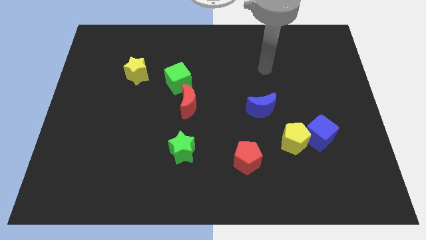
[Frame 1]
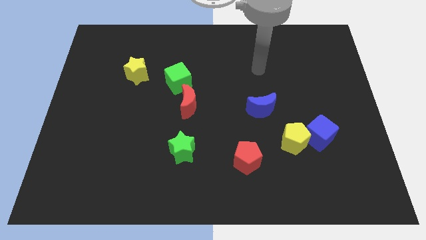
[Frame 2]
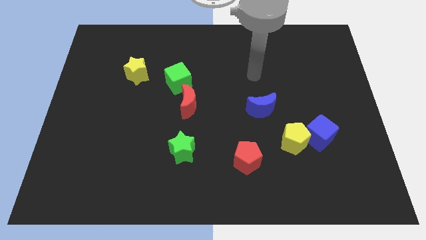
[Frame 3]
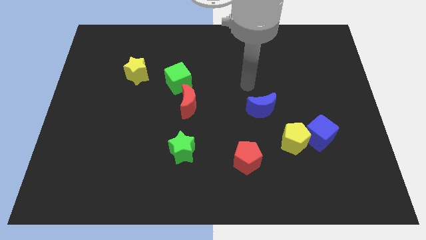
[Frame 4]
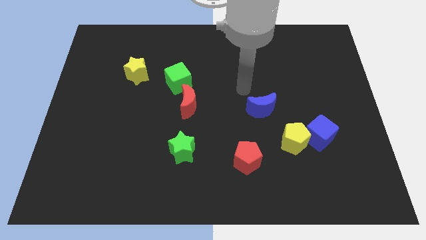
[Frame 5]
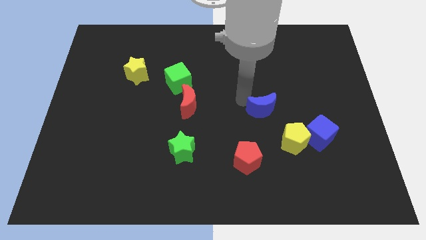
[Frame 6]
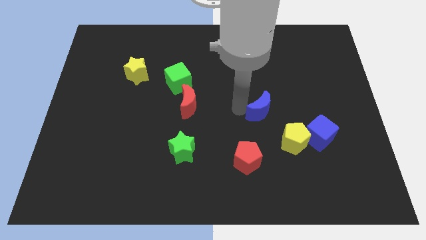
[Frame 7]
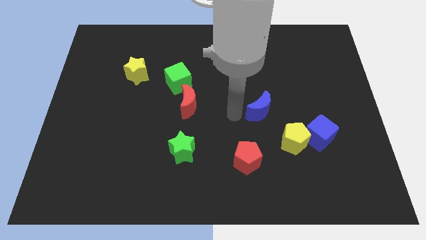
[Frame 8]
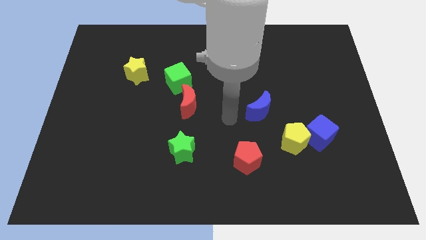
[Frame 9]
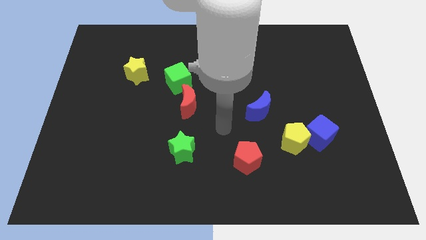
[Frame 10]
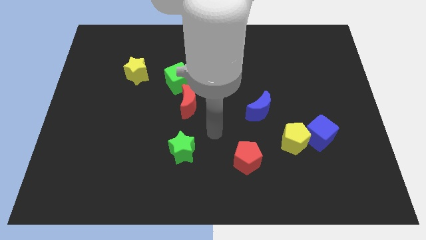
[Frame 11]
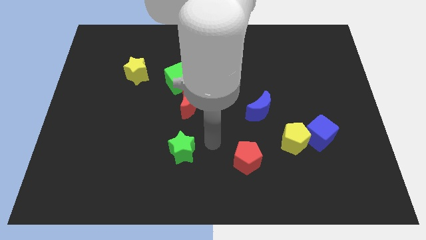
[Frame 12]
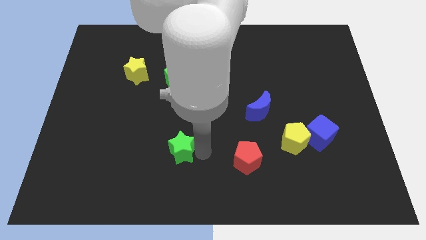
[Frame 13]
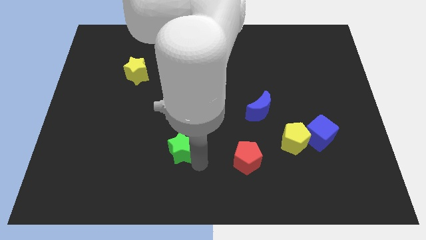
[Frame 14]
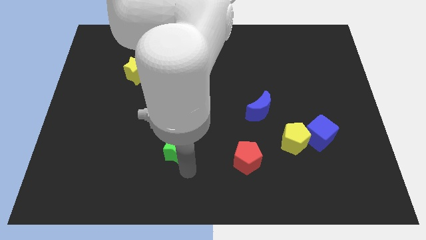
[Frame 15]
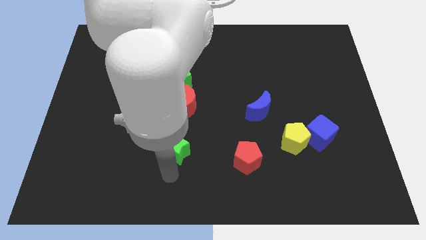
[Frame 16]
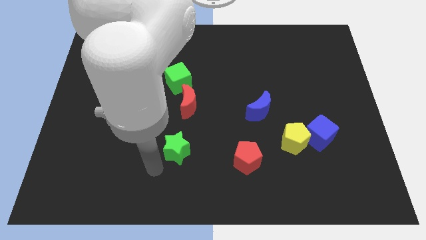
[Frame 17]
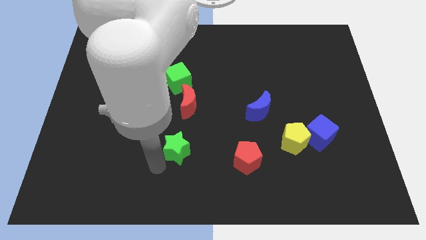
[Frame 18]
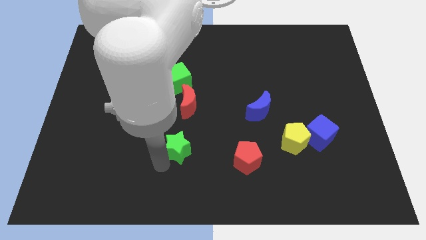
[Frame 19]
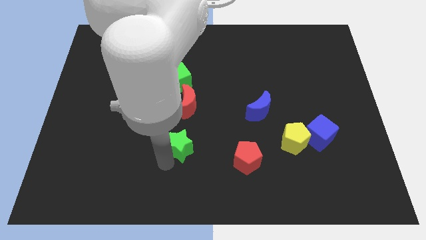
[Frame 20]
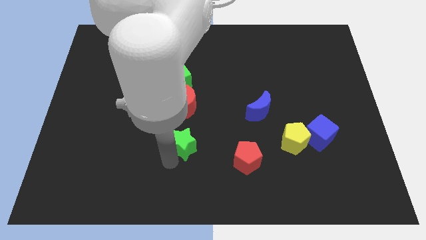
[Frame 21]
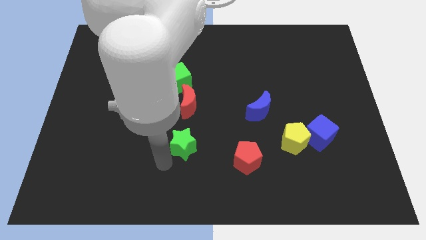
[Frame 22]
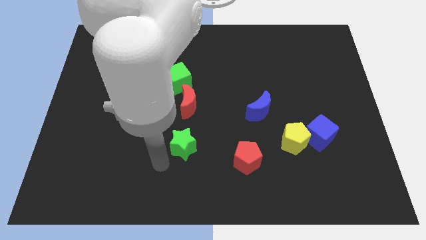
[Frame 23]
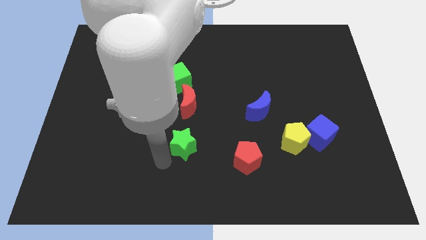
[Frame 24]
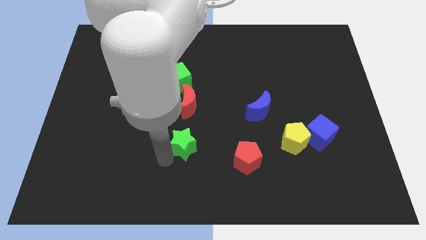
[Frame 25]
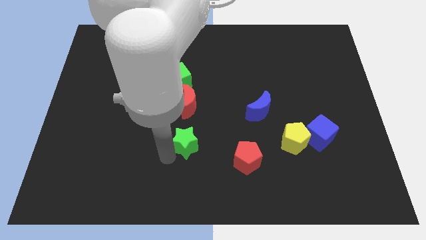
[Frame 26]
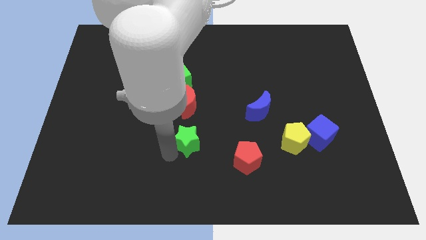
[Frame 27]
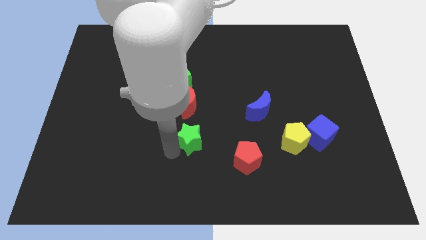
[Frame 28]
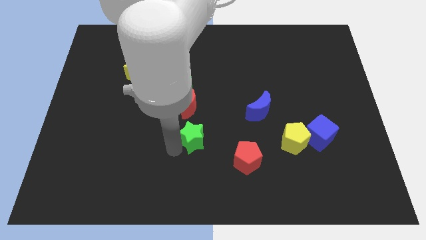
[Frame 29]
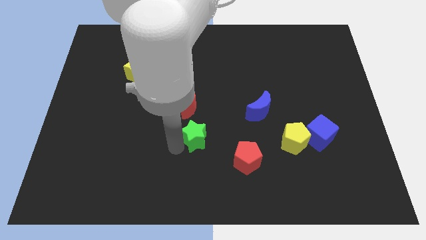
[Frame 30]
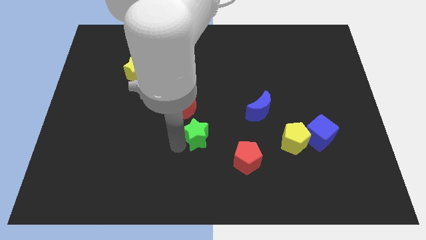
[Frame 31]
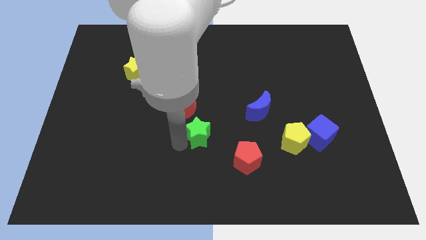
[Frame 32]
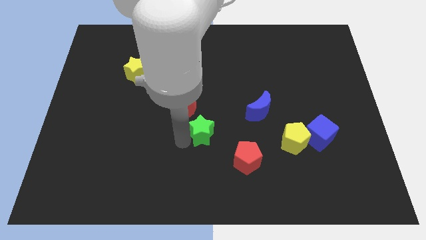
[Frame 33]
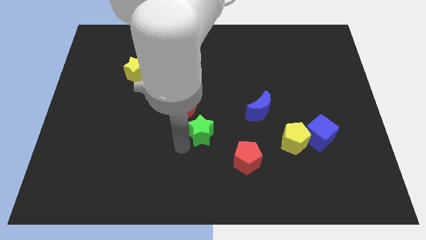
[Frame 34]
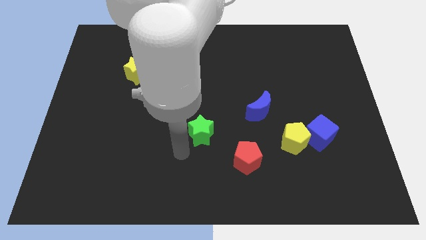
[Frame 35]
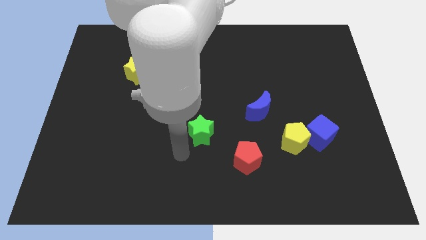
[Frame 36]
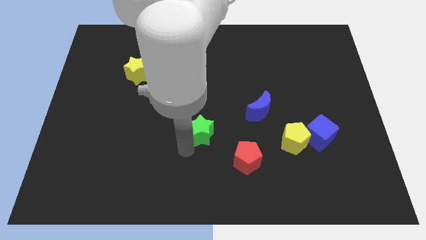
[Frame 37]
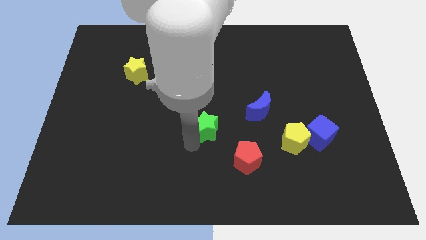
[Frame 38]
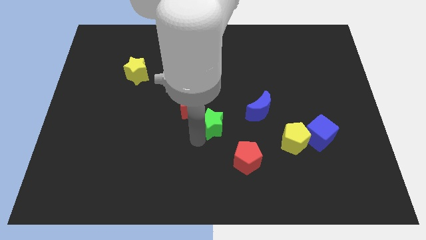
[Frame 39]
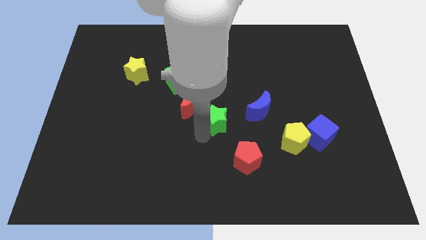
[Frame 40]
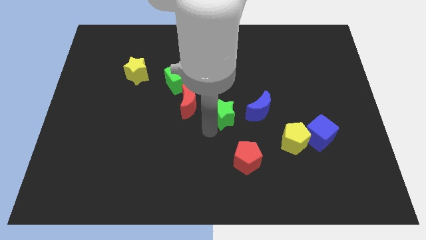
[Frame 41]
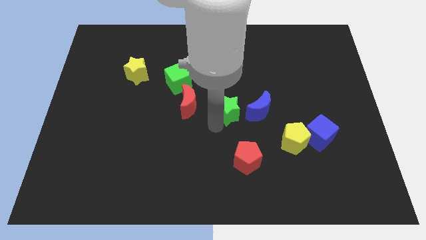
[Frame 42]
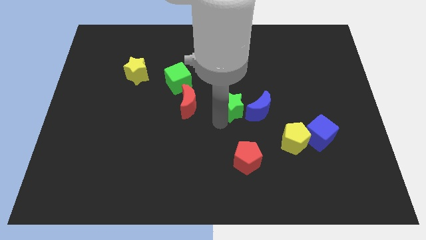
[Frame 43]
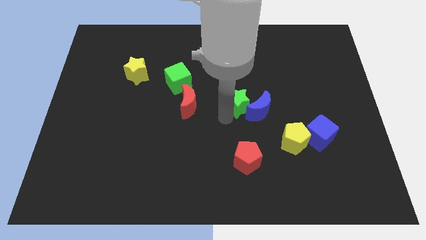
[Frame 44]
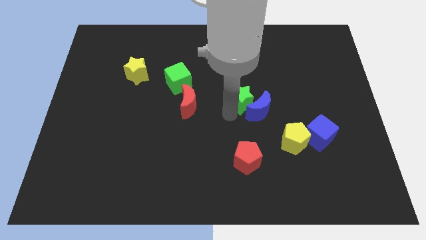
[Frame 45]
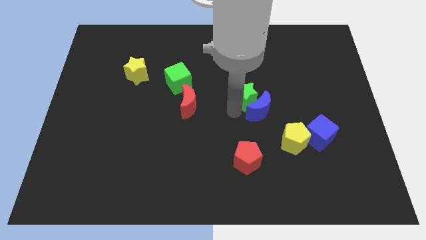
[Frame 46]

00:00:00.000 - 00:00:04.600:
push the green star upwards and then right

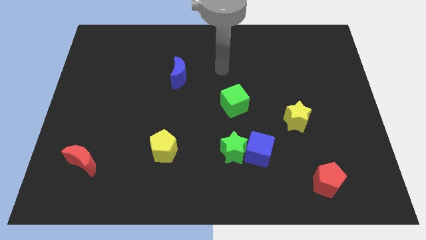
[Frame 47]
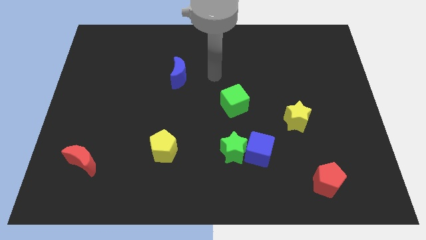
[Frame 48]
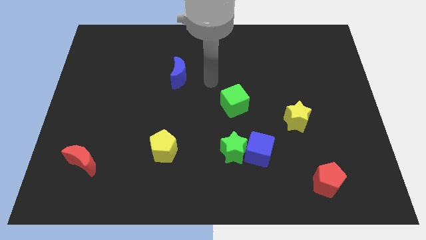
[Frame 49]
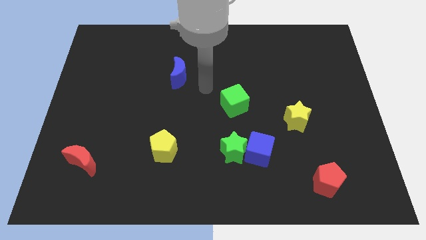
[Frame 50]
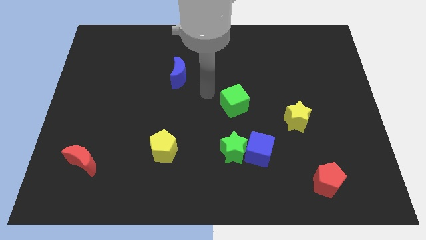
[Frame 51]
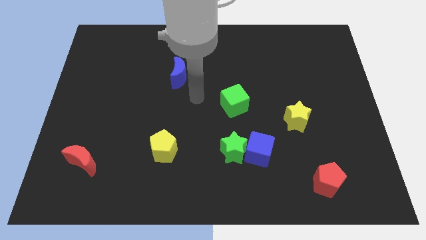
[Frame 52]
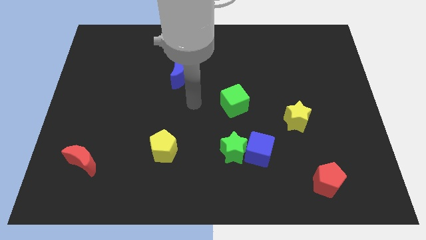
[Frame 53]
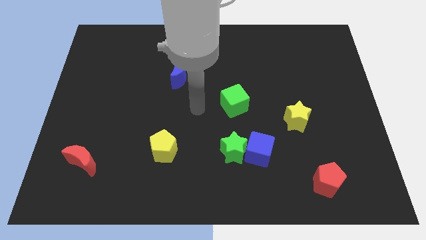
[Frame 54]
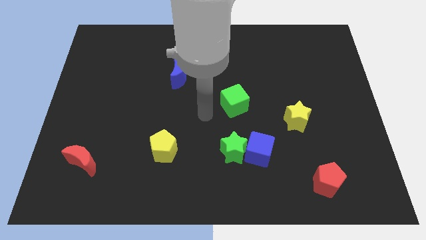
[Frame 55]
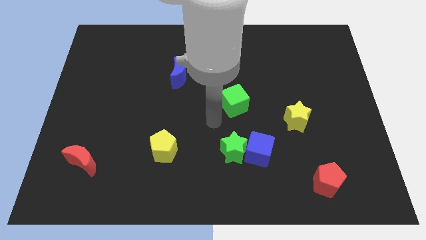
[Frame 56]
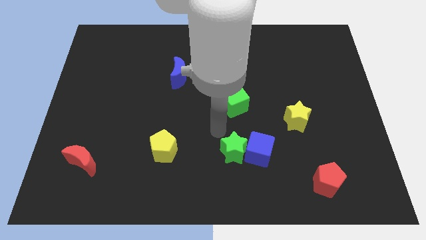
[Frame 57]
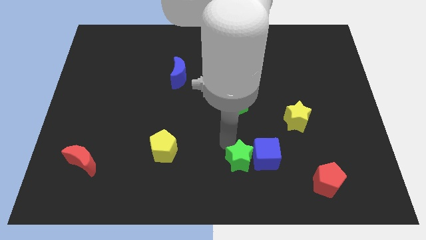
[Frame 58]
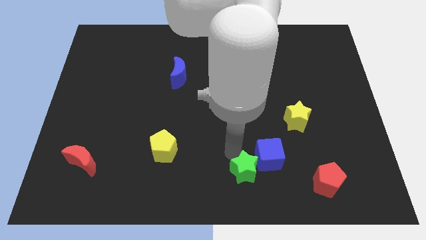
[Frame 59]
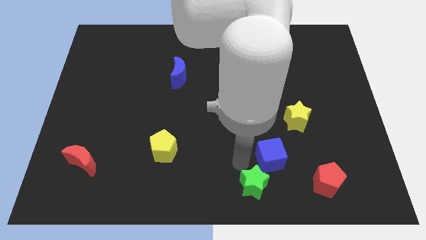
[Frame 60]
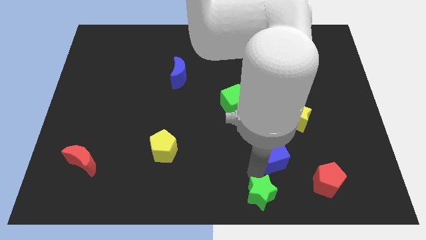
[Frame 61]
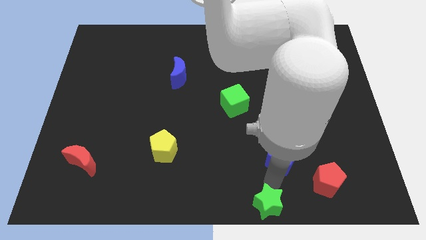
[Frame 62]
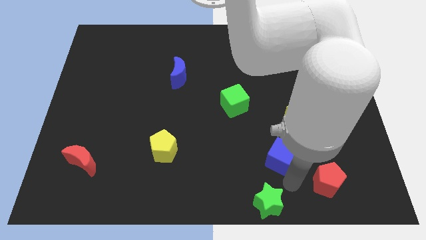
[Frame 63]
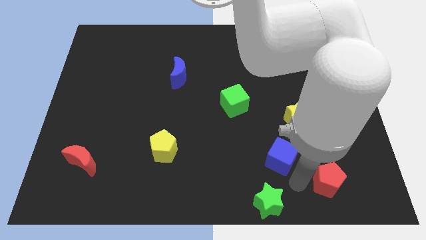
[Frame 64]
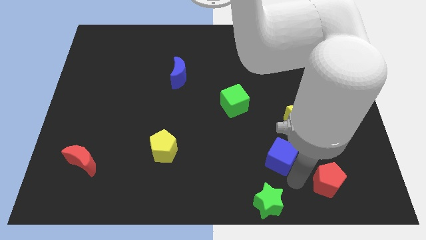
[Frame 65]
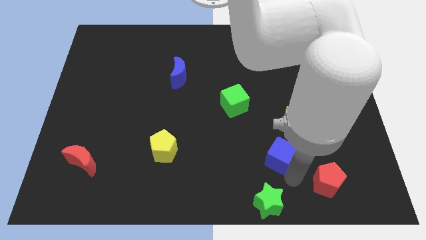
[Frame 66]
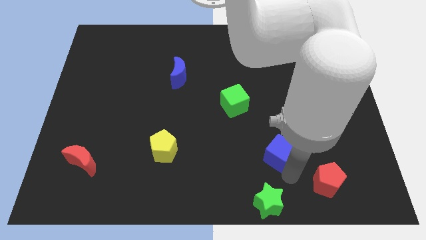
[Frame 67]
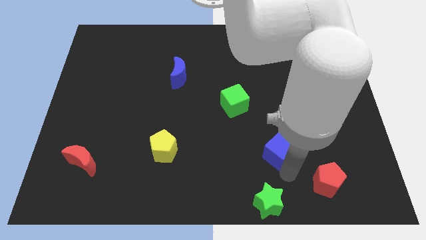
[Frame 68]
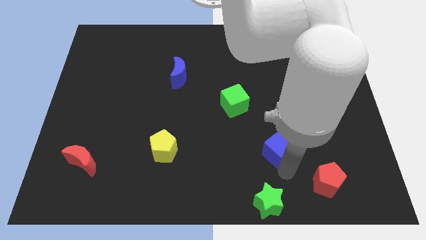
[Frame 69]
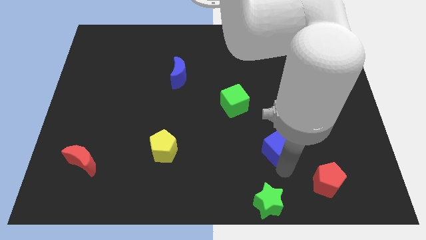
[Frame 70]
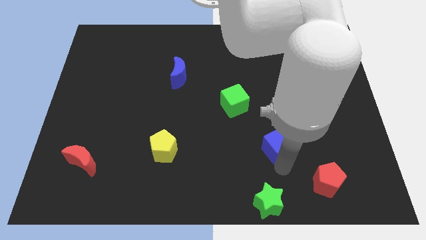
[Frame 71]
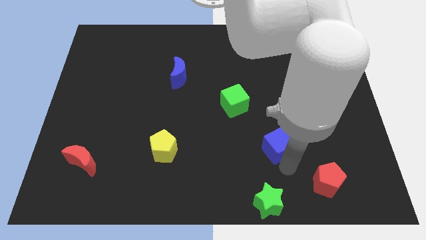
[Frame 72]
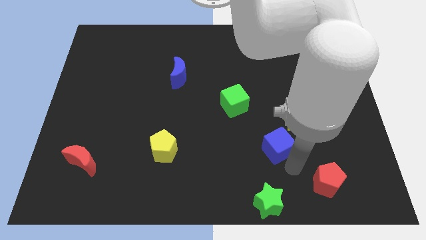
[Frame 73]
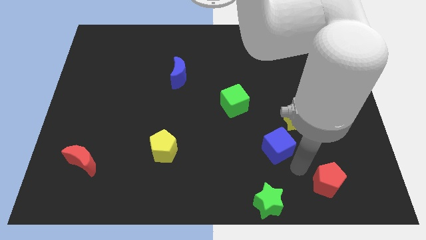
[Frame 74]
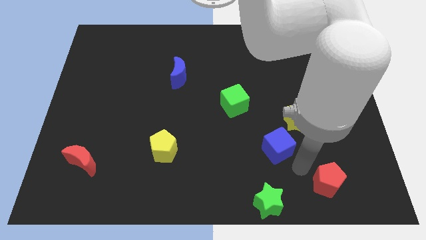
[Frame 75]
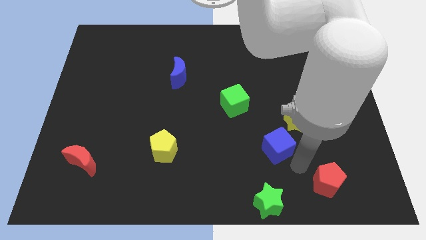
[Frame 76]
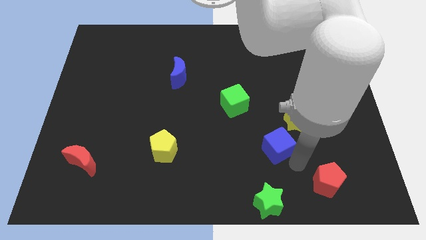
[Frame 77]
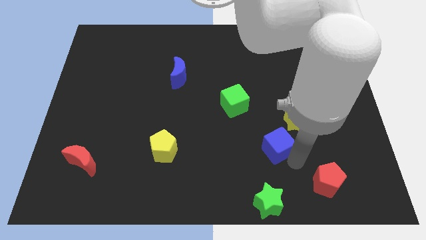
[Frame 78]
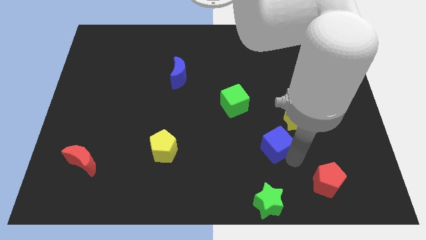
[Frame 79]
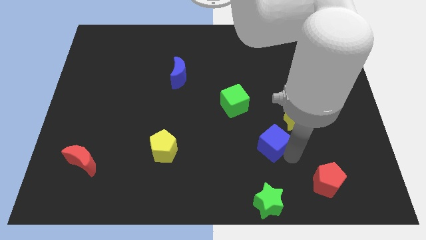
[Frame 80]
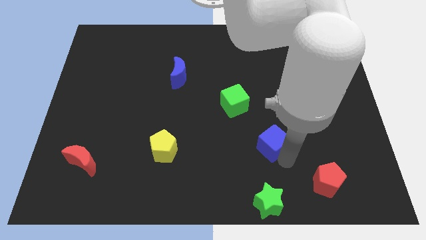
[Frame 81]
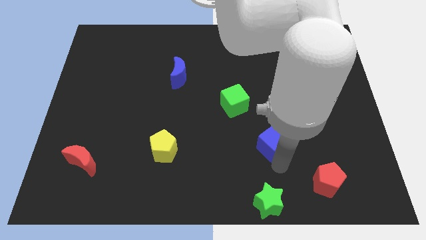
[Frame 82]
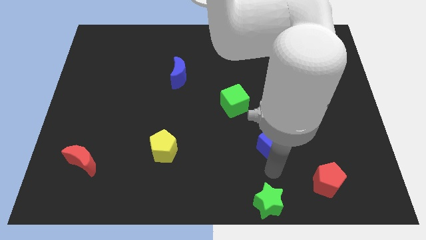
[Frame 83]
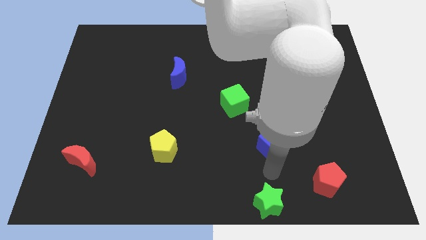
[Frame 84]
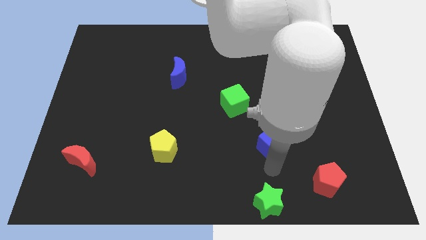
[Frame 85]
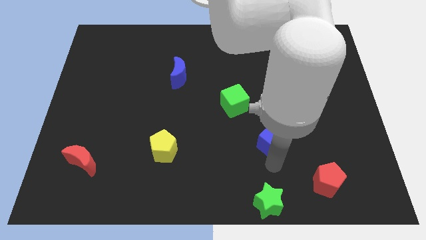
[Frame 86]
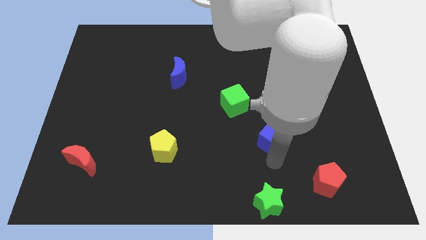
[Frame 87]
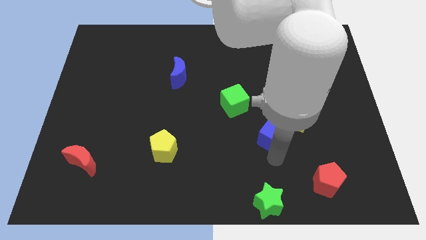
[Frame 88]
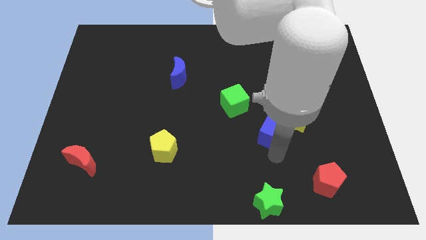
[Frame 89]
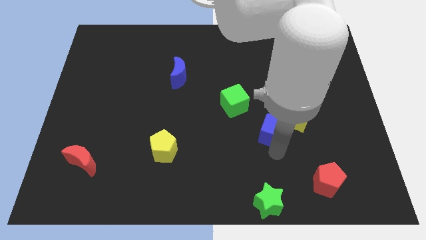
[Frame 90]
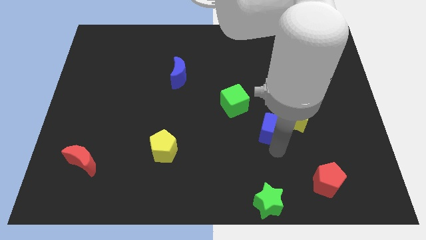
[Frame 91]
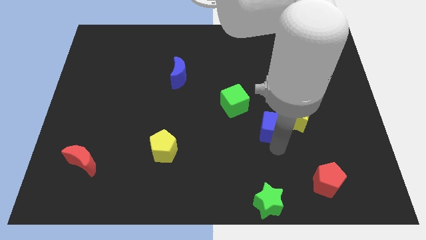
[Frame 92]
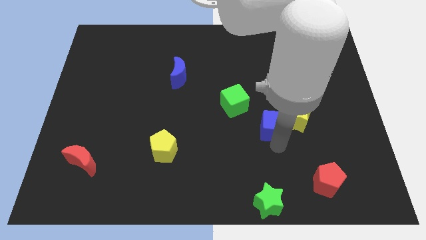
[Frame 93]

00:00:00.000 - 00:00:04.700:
push the blue cube a little upwards and then right
